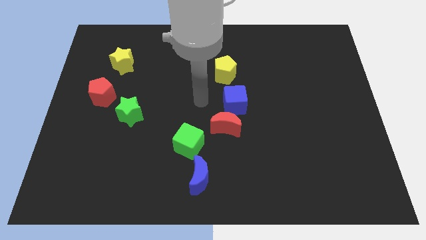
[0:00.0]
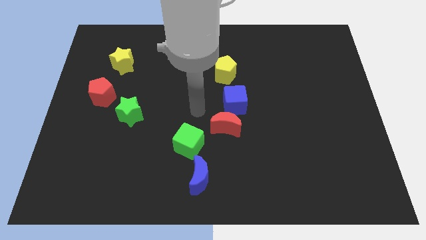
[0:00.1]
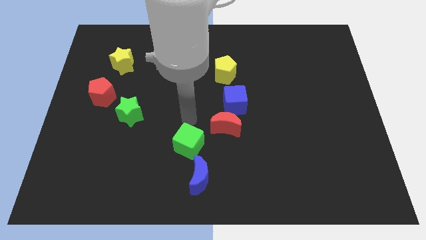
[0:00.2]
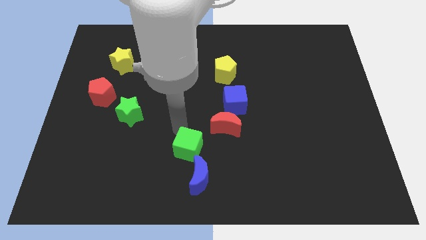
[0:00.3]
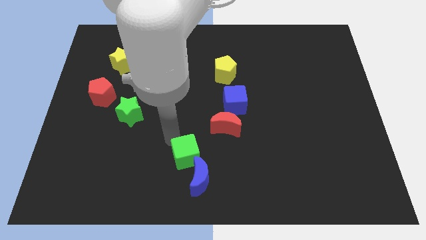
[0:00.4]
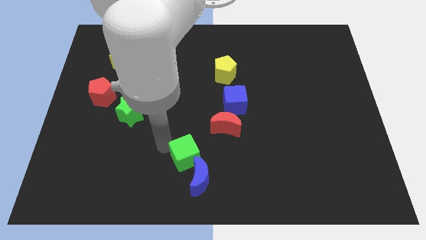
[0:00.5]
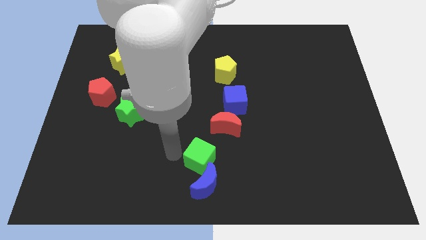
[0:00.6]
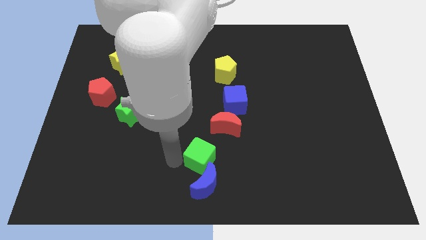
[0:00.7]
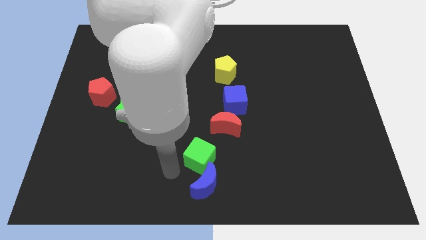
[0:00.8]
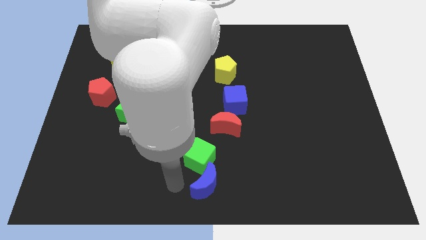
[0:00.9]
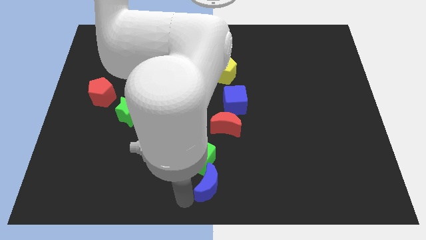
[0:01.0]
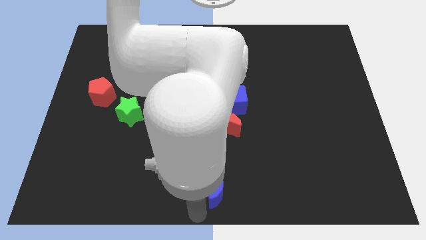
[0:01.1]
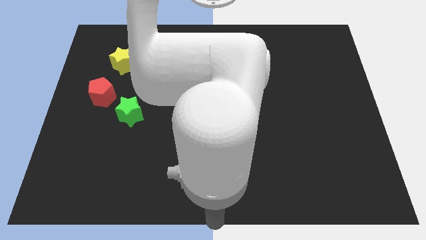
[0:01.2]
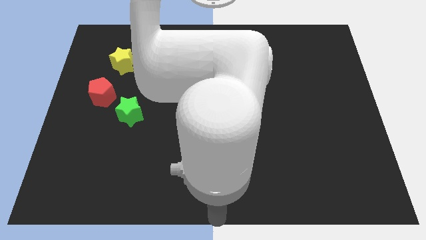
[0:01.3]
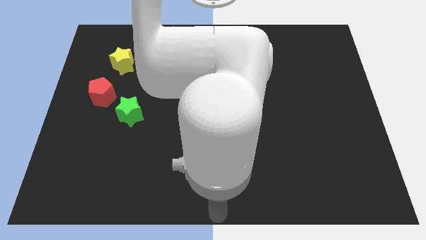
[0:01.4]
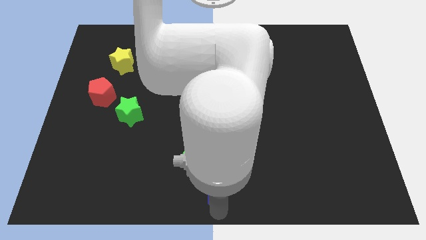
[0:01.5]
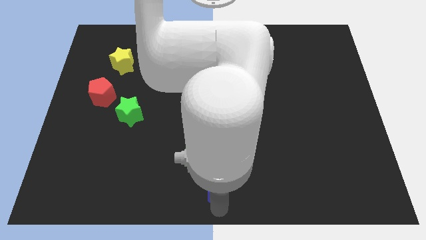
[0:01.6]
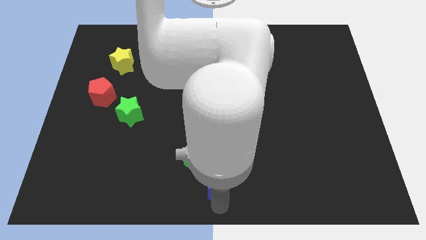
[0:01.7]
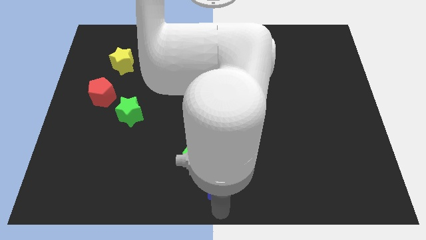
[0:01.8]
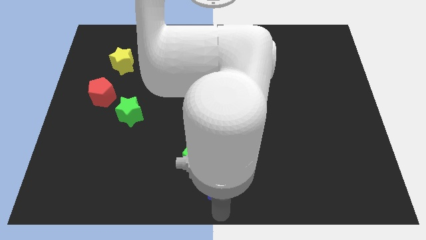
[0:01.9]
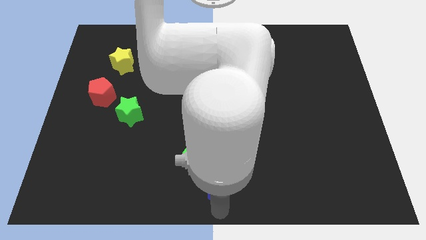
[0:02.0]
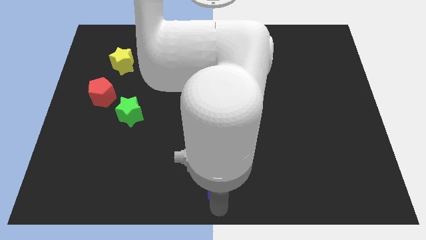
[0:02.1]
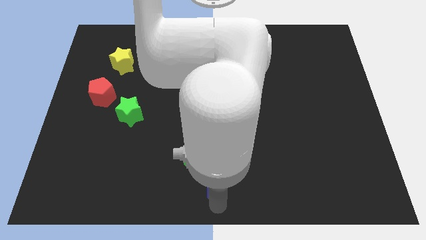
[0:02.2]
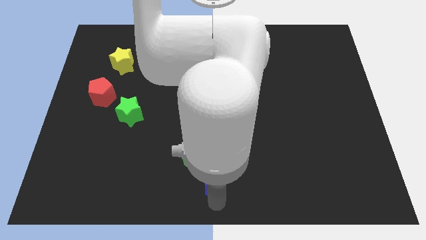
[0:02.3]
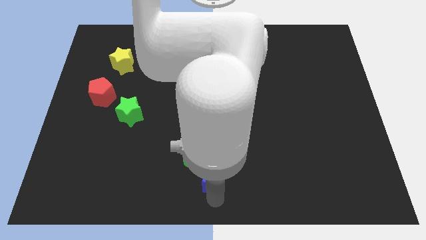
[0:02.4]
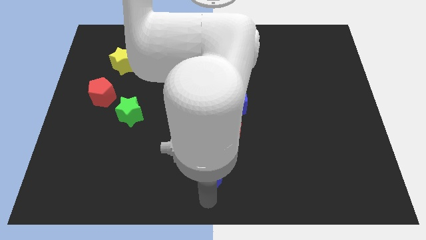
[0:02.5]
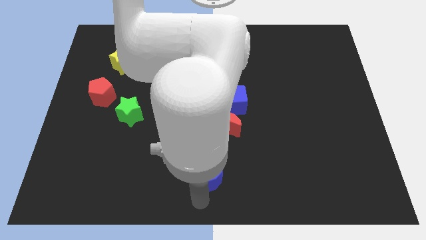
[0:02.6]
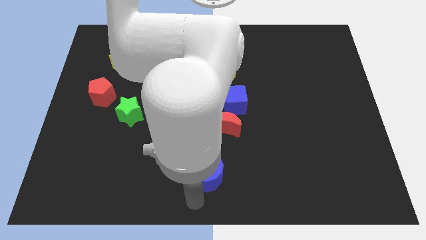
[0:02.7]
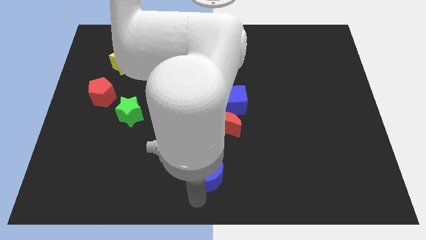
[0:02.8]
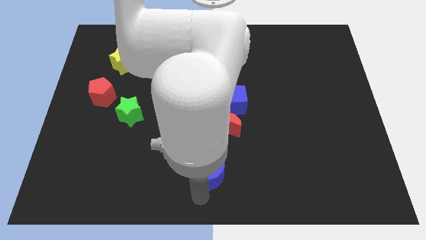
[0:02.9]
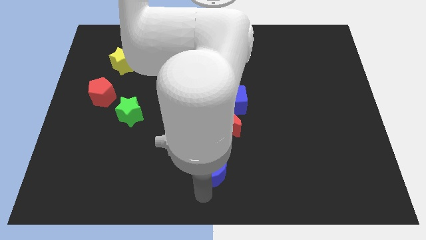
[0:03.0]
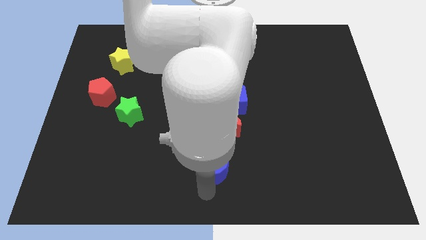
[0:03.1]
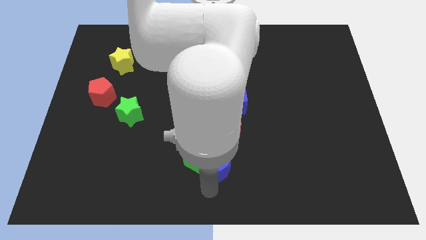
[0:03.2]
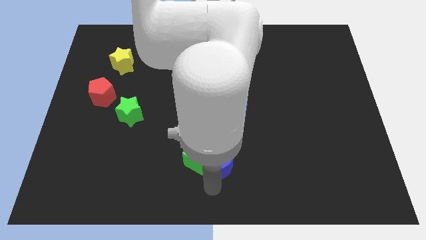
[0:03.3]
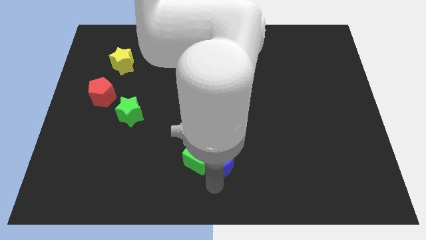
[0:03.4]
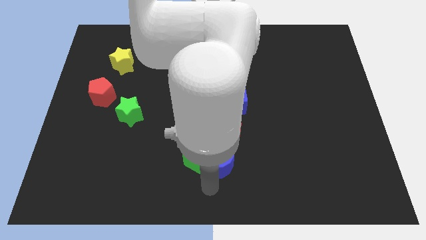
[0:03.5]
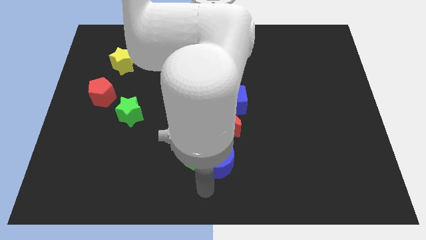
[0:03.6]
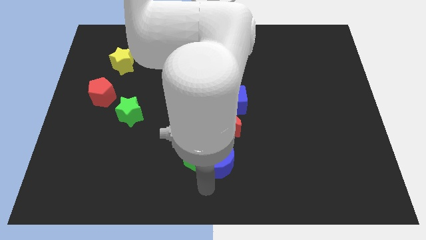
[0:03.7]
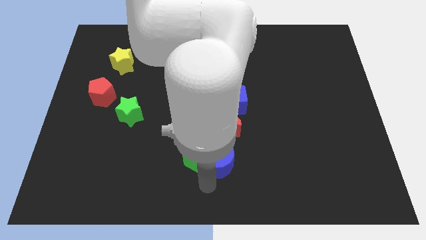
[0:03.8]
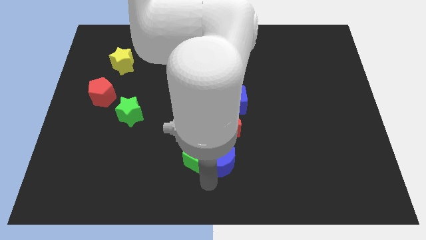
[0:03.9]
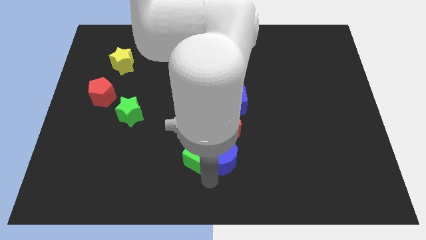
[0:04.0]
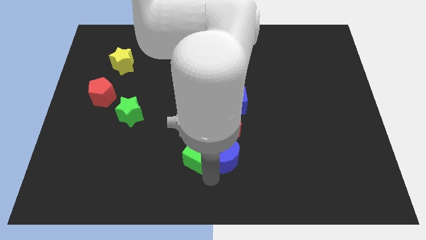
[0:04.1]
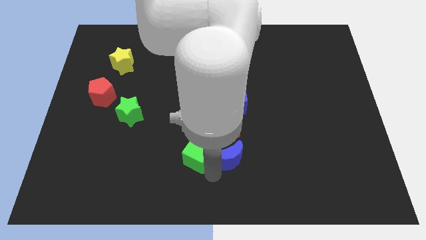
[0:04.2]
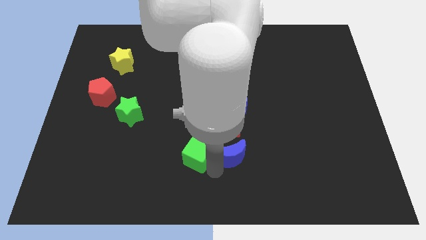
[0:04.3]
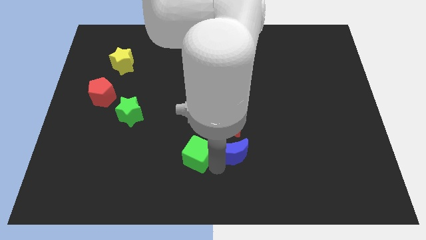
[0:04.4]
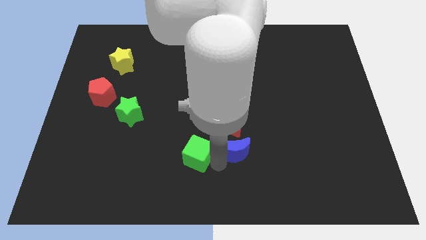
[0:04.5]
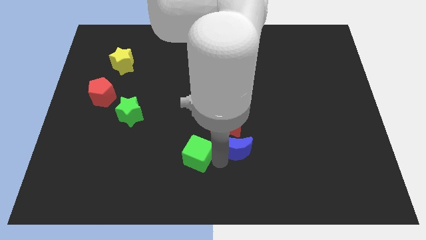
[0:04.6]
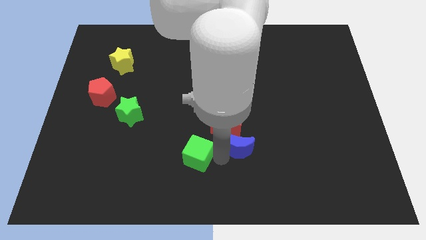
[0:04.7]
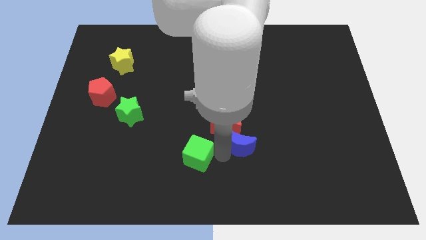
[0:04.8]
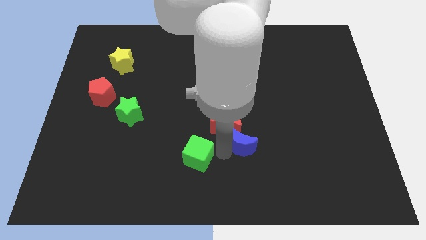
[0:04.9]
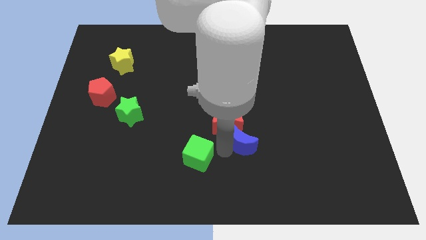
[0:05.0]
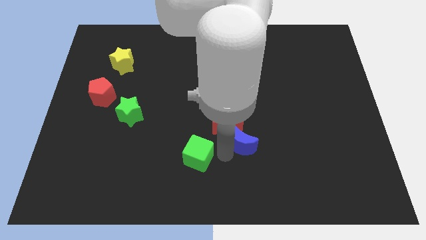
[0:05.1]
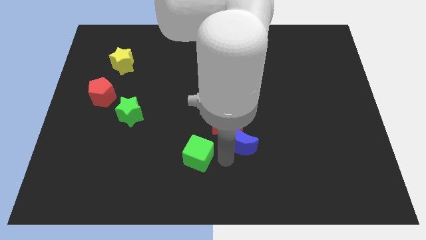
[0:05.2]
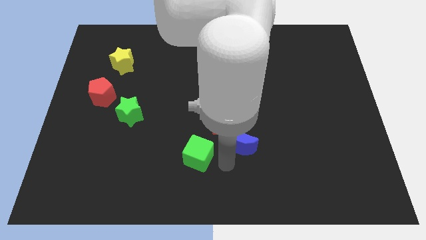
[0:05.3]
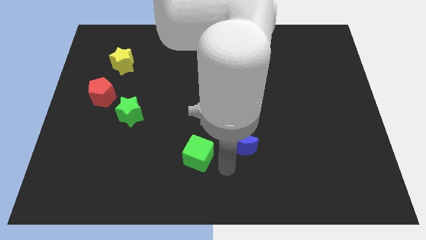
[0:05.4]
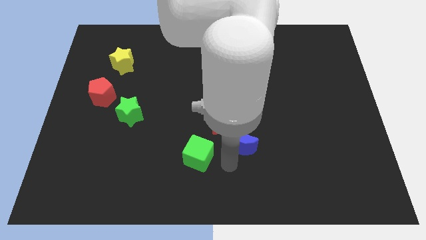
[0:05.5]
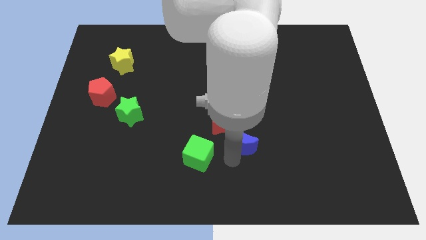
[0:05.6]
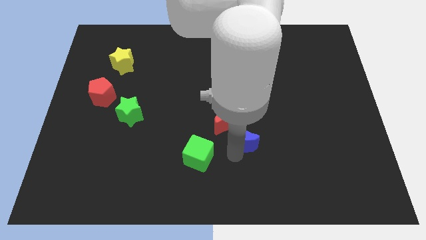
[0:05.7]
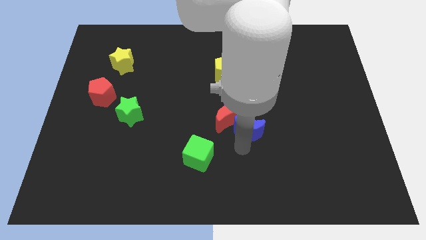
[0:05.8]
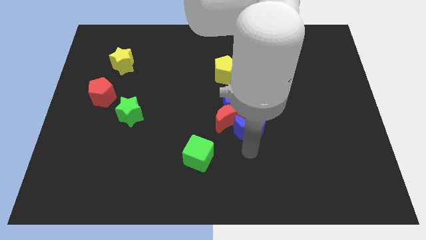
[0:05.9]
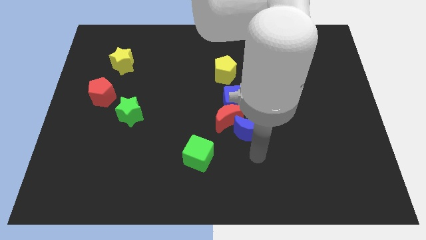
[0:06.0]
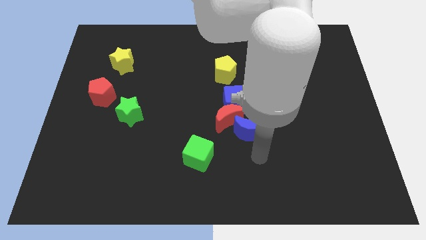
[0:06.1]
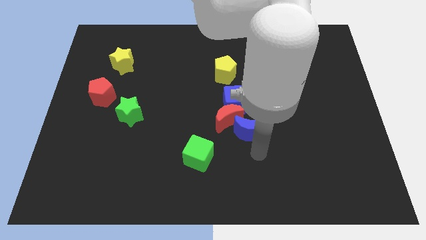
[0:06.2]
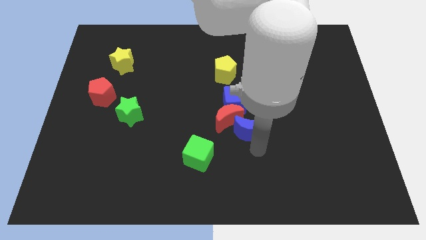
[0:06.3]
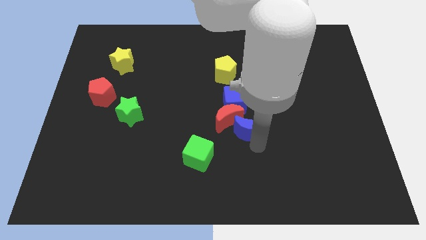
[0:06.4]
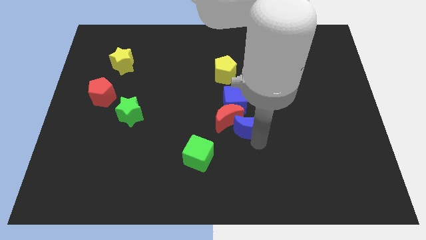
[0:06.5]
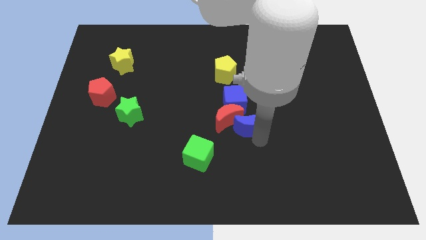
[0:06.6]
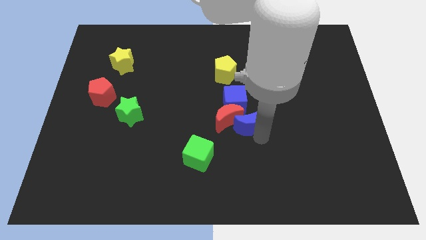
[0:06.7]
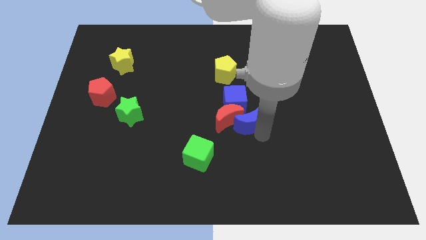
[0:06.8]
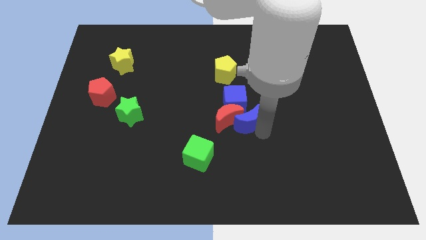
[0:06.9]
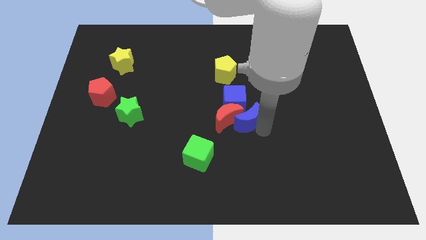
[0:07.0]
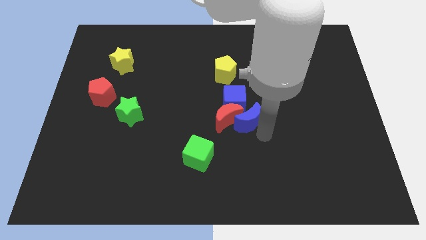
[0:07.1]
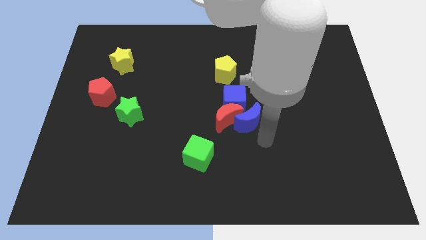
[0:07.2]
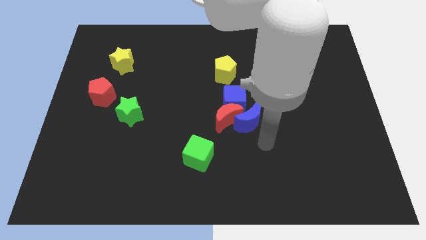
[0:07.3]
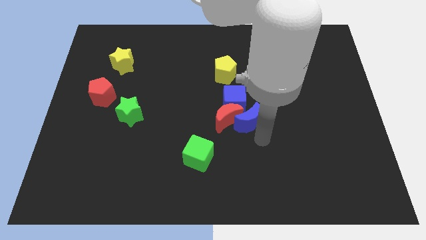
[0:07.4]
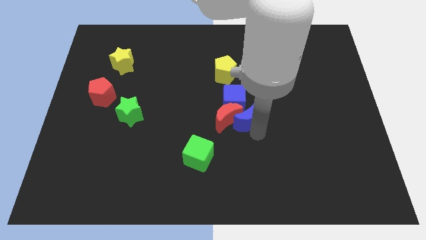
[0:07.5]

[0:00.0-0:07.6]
move the blue moon next to the blue cube
